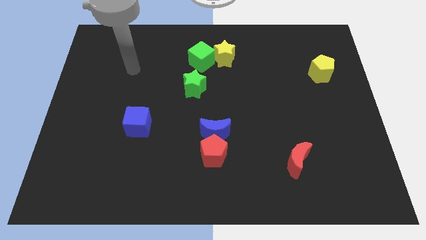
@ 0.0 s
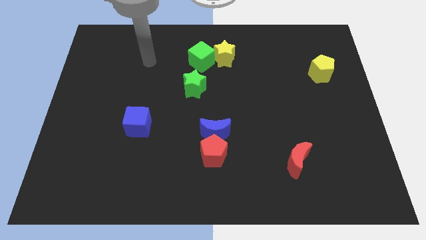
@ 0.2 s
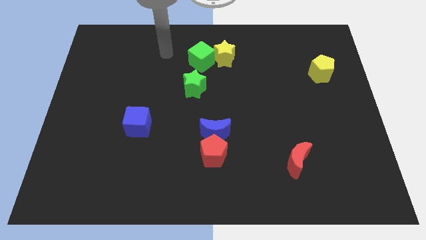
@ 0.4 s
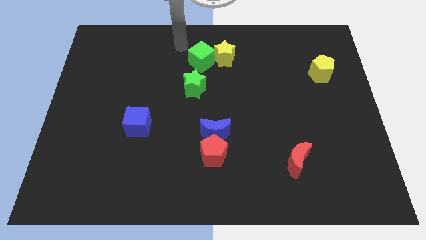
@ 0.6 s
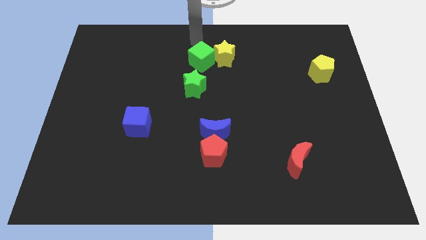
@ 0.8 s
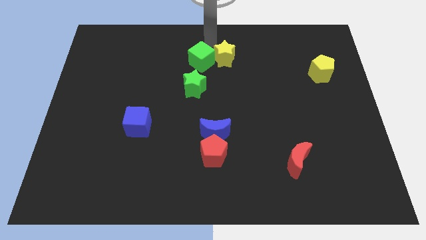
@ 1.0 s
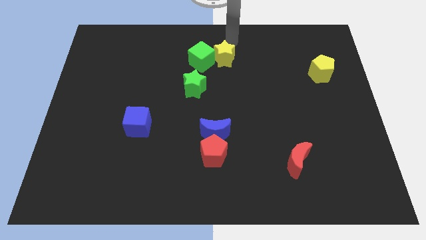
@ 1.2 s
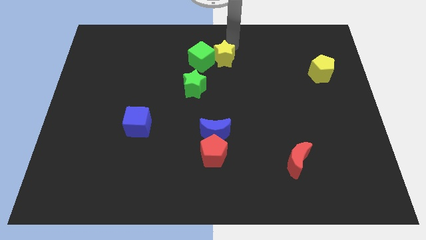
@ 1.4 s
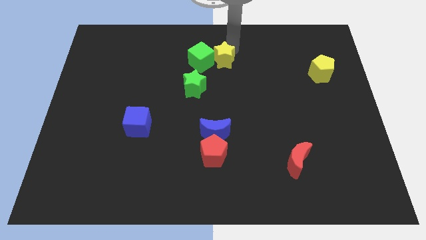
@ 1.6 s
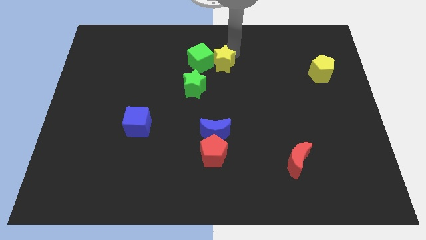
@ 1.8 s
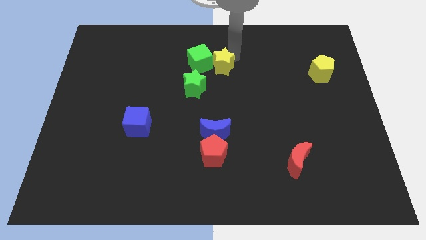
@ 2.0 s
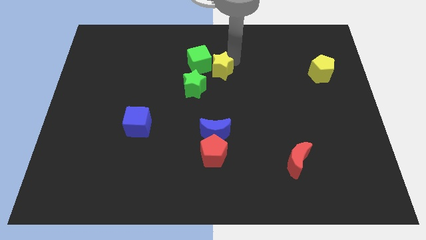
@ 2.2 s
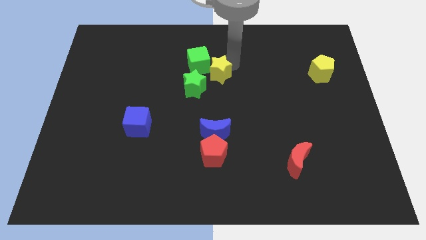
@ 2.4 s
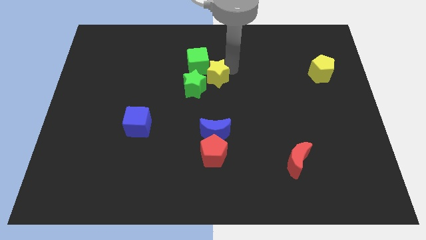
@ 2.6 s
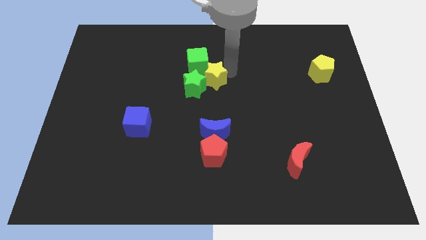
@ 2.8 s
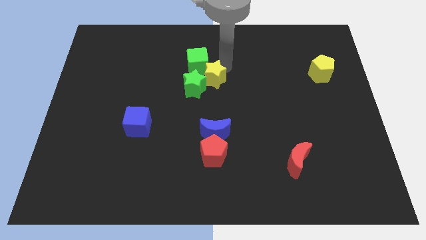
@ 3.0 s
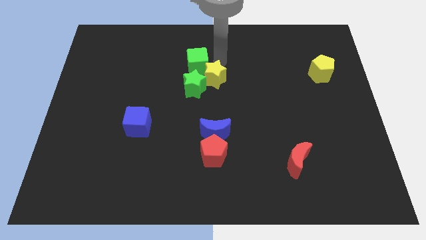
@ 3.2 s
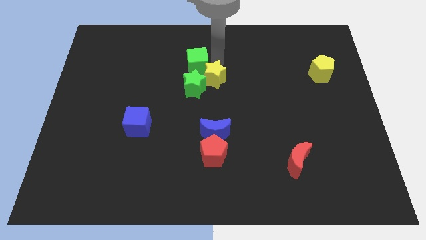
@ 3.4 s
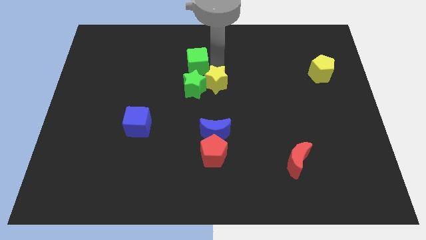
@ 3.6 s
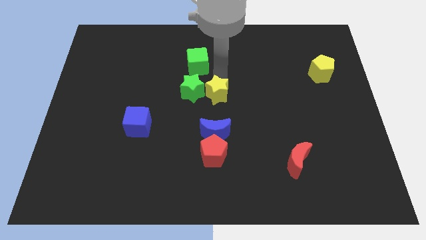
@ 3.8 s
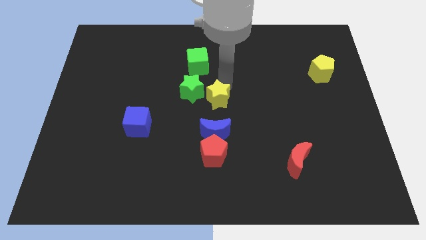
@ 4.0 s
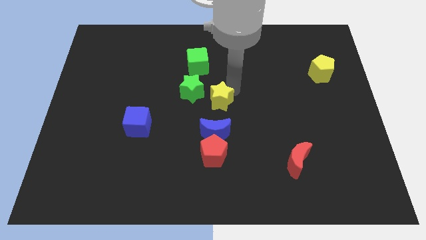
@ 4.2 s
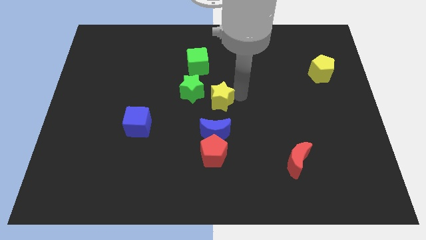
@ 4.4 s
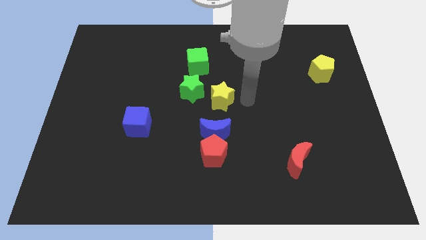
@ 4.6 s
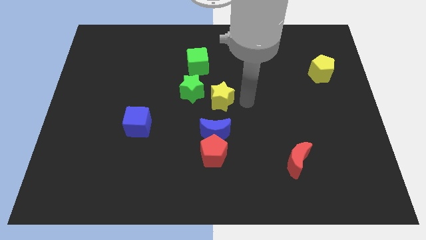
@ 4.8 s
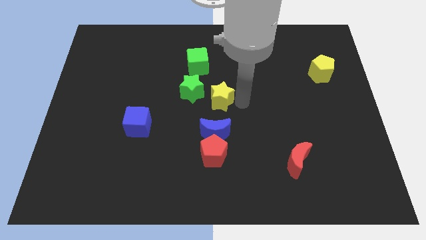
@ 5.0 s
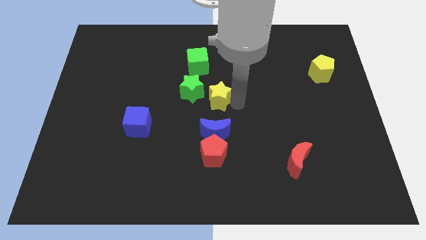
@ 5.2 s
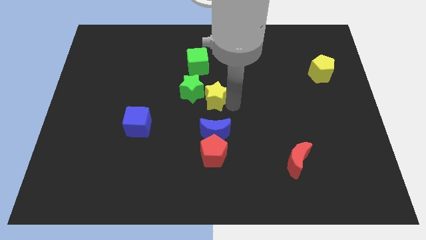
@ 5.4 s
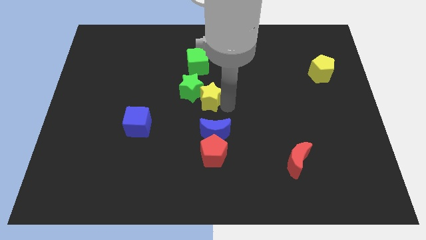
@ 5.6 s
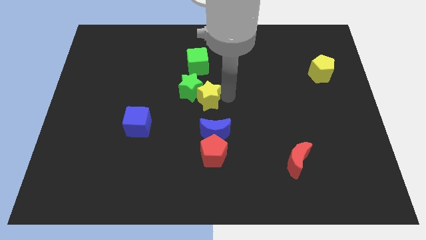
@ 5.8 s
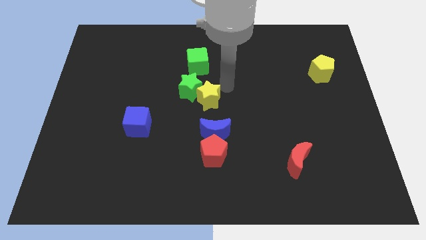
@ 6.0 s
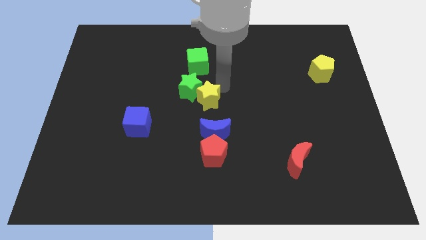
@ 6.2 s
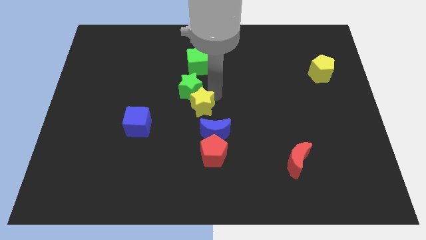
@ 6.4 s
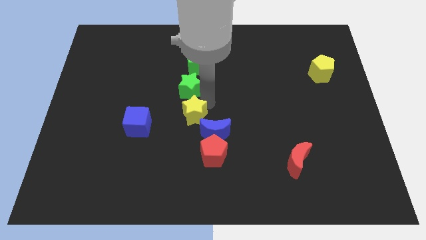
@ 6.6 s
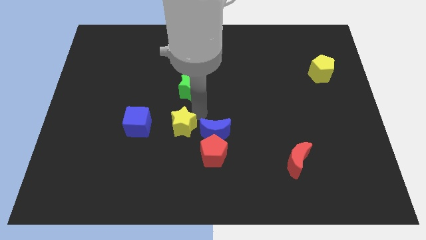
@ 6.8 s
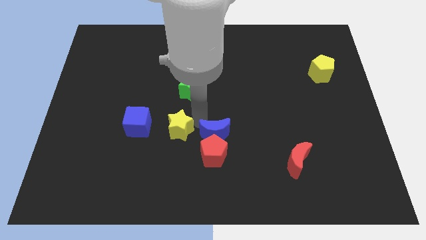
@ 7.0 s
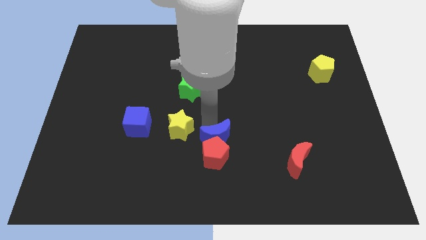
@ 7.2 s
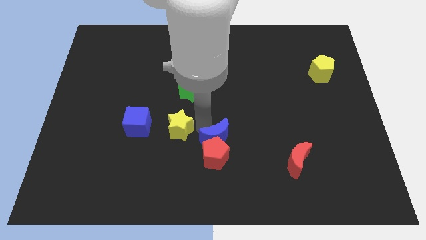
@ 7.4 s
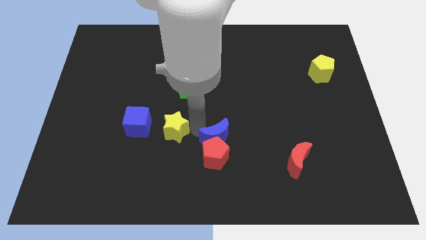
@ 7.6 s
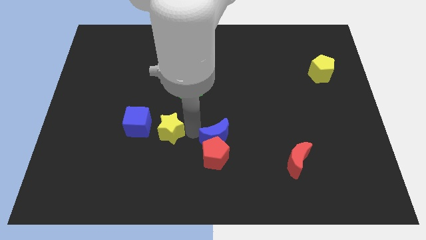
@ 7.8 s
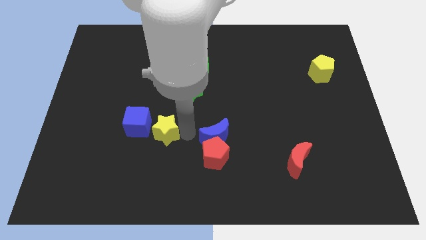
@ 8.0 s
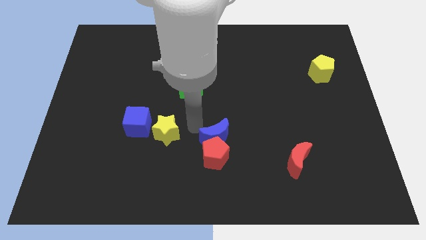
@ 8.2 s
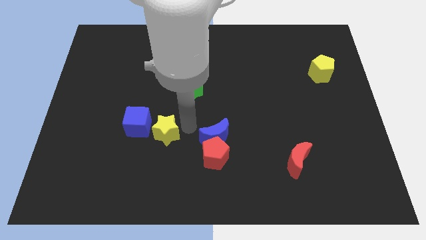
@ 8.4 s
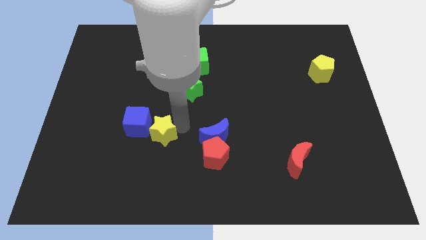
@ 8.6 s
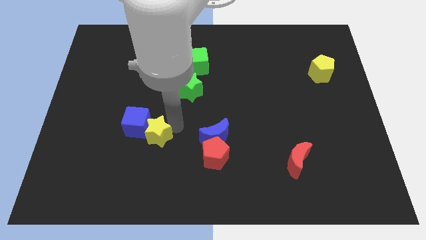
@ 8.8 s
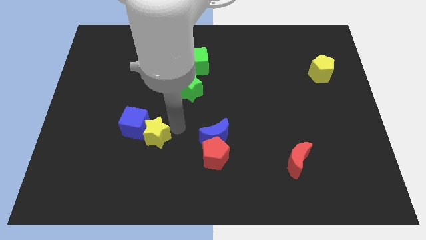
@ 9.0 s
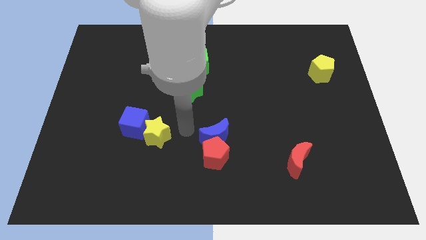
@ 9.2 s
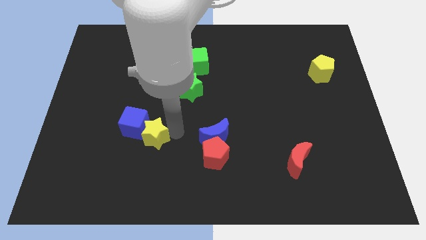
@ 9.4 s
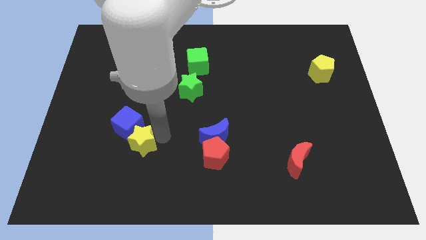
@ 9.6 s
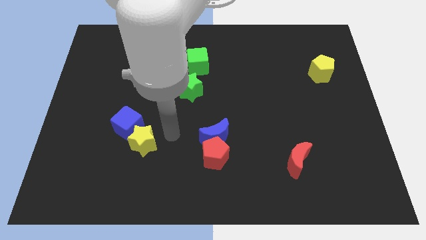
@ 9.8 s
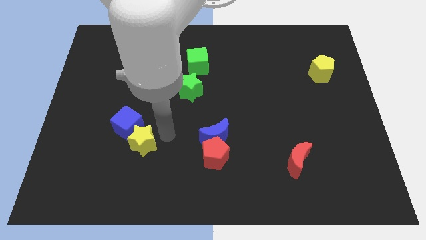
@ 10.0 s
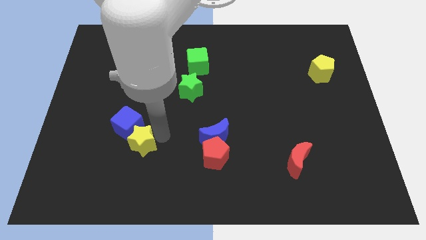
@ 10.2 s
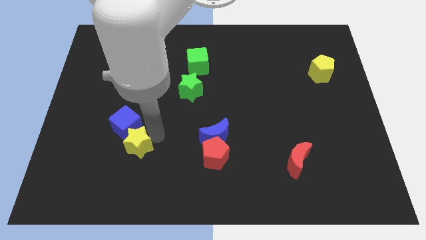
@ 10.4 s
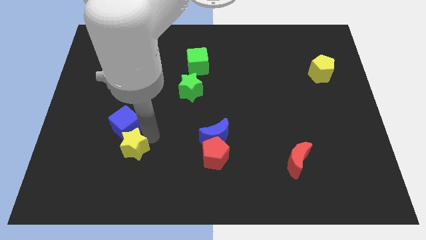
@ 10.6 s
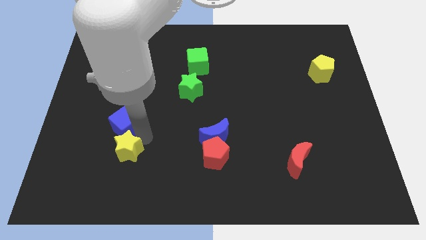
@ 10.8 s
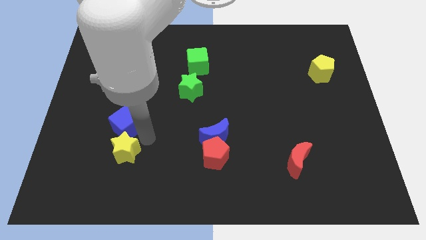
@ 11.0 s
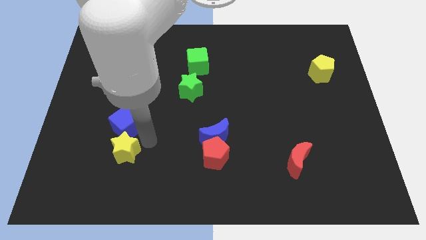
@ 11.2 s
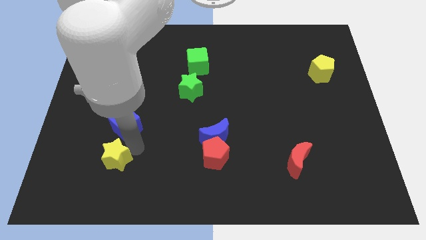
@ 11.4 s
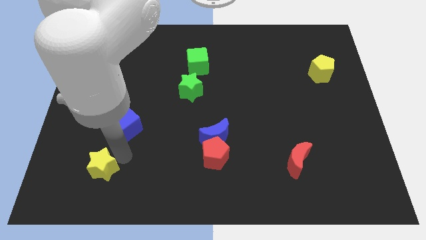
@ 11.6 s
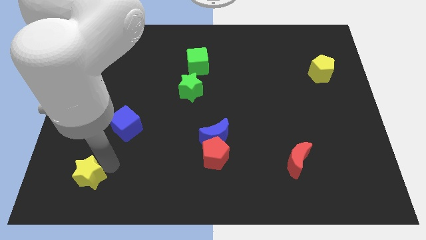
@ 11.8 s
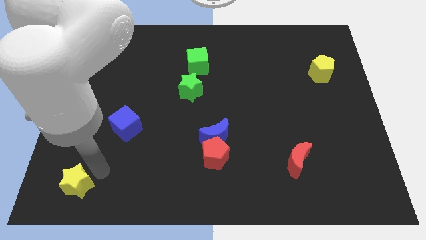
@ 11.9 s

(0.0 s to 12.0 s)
put the yellow star to the lower left corner

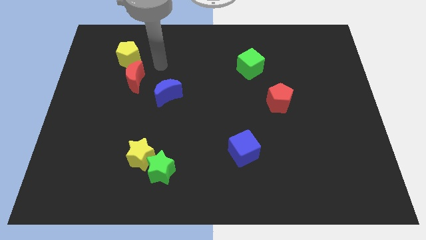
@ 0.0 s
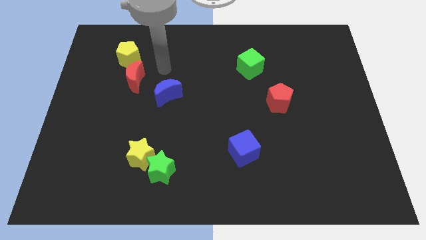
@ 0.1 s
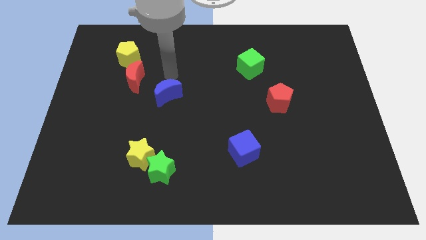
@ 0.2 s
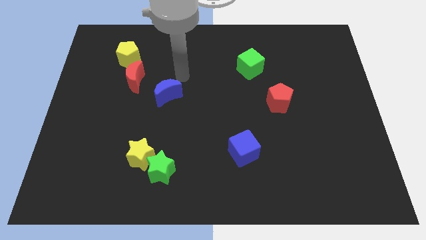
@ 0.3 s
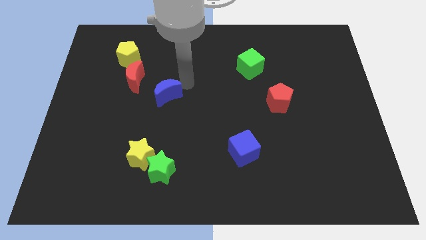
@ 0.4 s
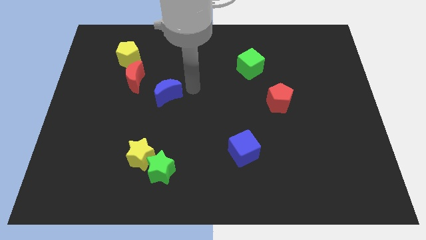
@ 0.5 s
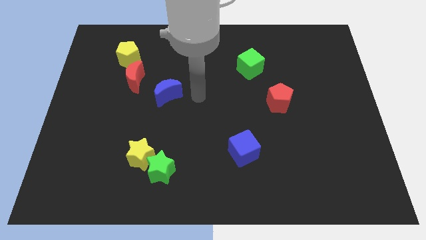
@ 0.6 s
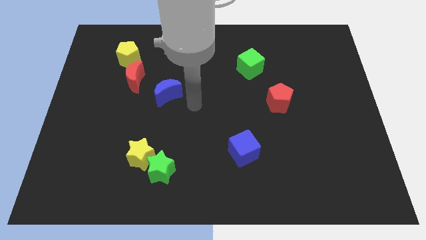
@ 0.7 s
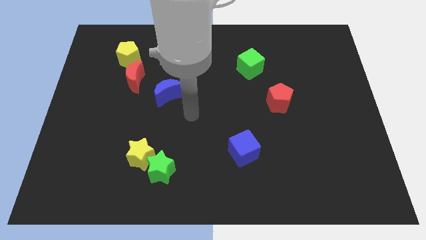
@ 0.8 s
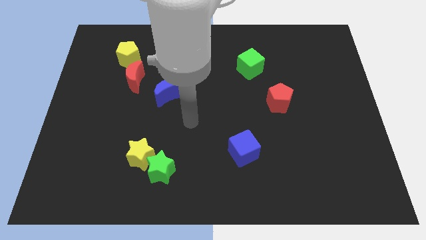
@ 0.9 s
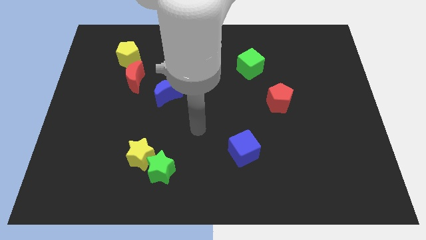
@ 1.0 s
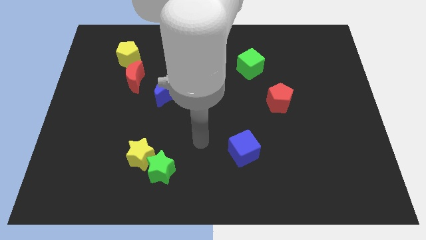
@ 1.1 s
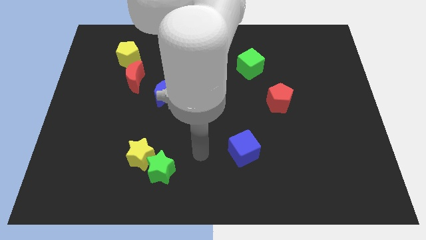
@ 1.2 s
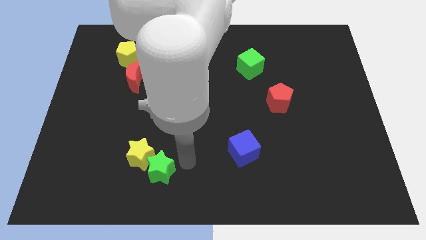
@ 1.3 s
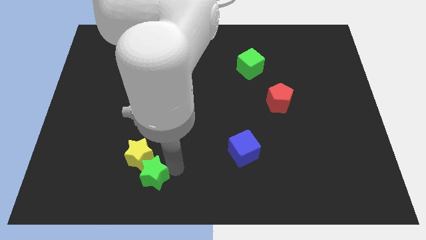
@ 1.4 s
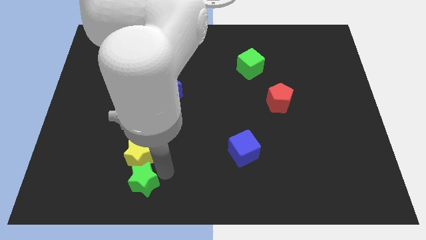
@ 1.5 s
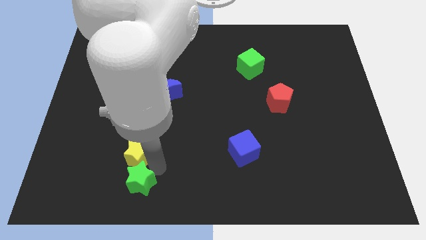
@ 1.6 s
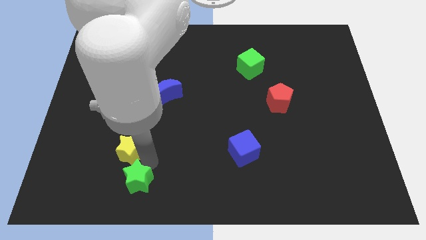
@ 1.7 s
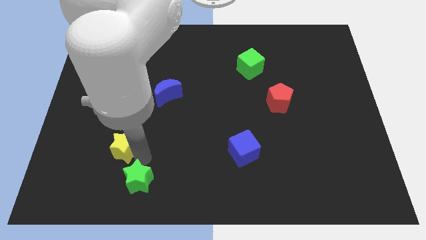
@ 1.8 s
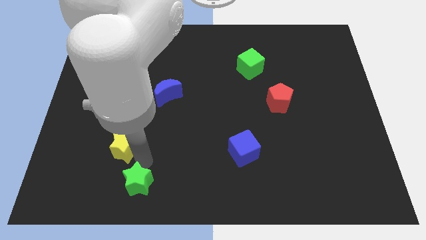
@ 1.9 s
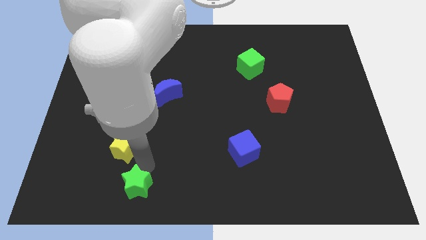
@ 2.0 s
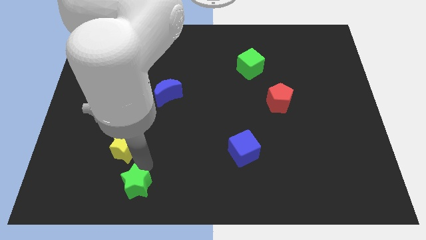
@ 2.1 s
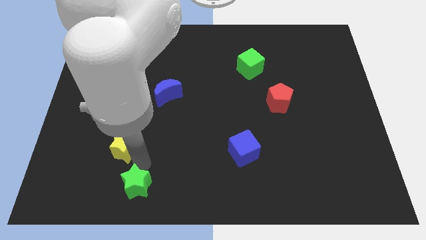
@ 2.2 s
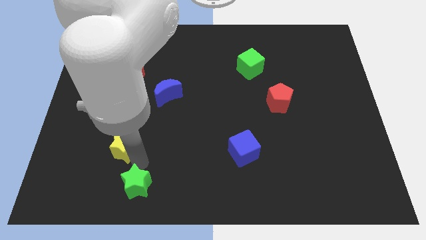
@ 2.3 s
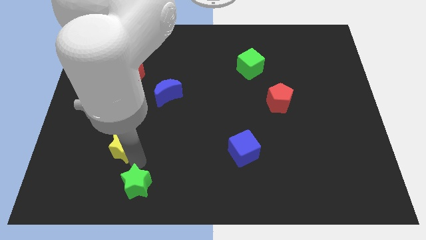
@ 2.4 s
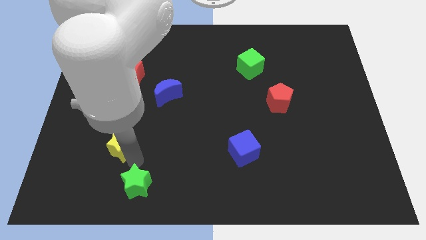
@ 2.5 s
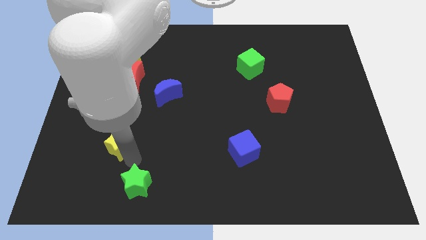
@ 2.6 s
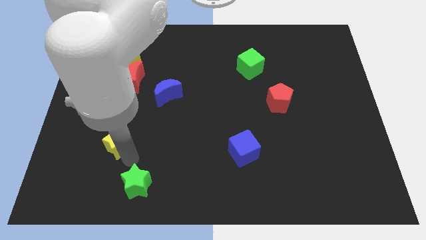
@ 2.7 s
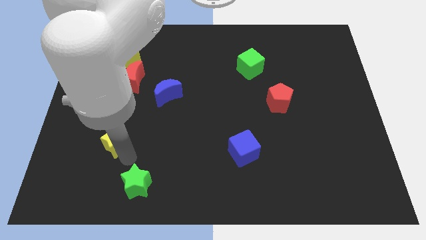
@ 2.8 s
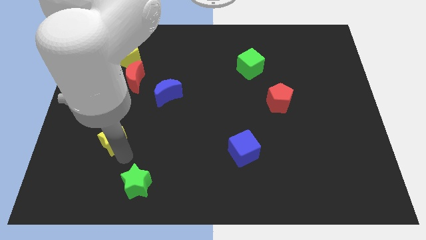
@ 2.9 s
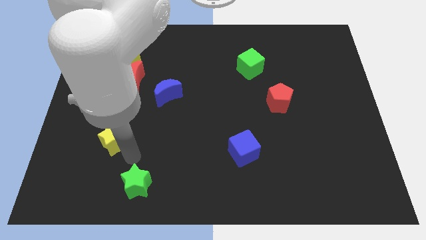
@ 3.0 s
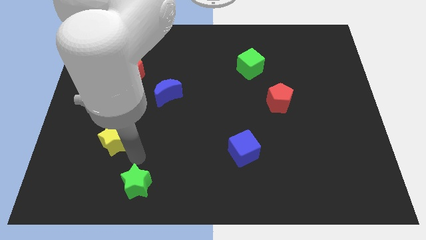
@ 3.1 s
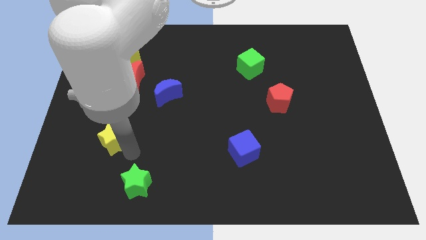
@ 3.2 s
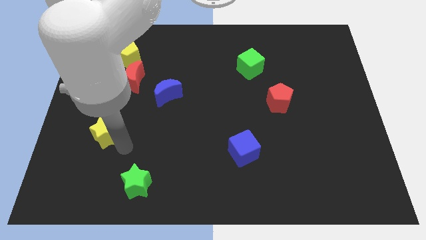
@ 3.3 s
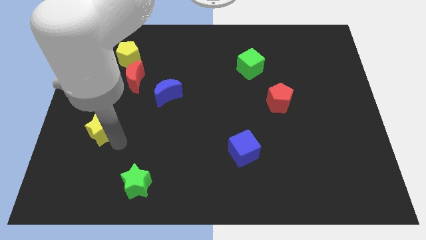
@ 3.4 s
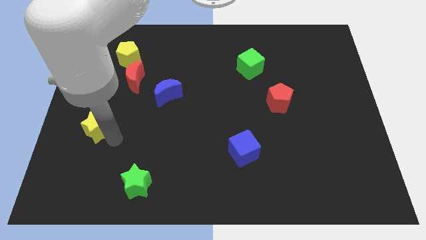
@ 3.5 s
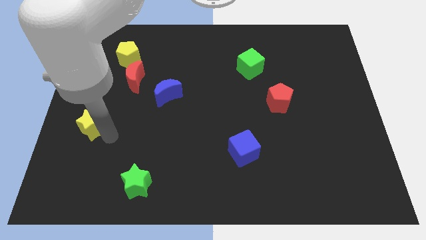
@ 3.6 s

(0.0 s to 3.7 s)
slide the yellow star to the center left
